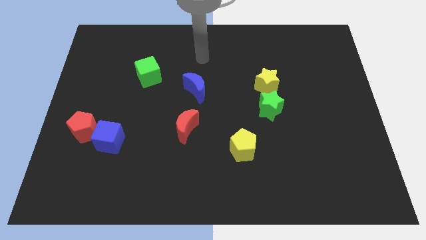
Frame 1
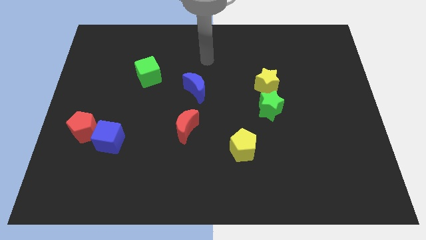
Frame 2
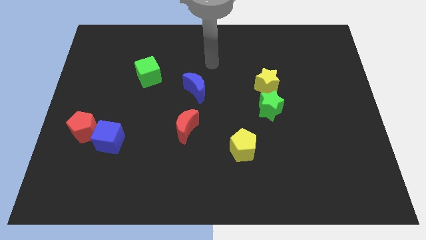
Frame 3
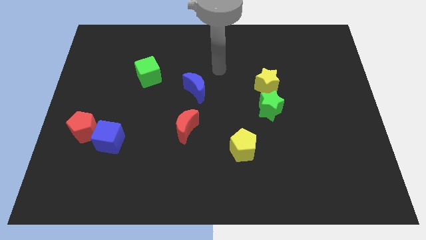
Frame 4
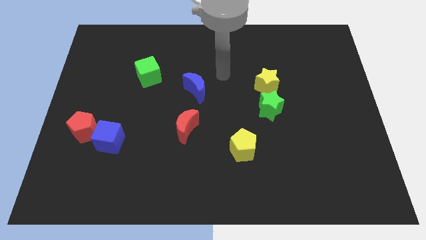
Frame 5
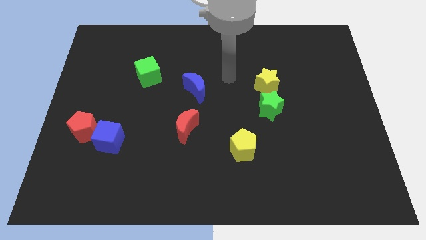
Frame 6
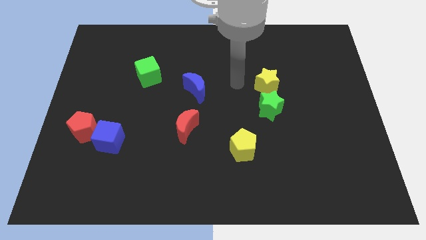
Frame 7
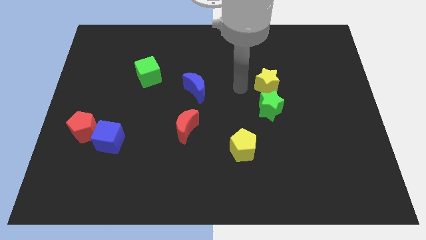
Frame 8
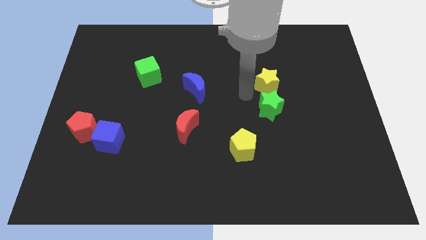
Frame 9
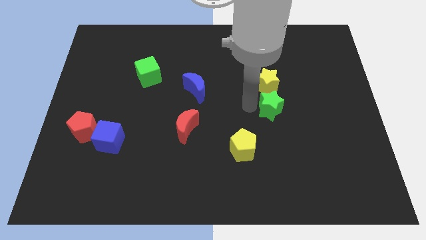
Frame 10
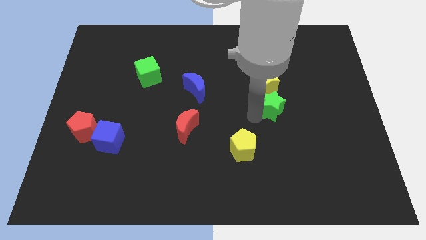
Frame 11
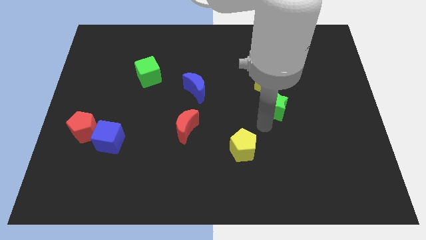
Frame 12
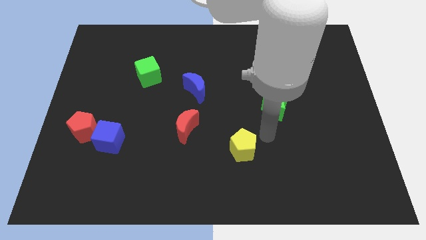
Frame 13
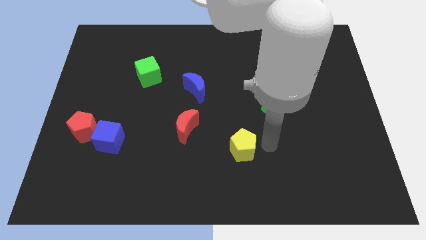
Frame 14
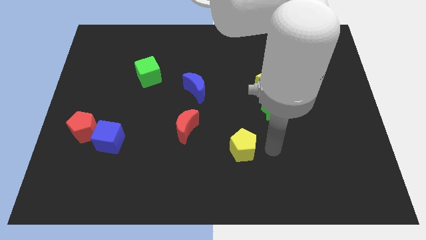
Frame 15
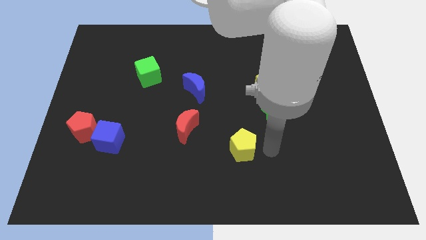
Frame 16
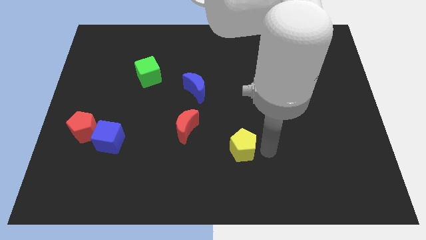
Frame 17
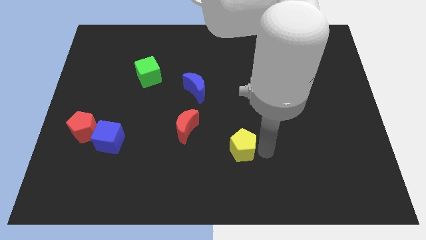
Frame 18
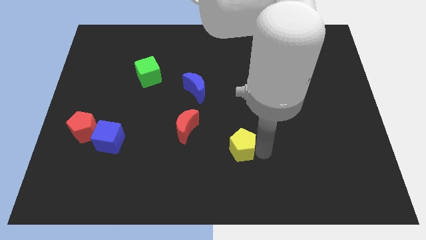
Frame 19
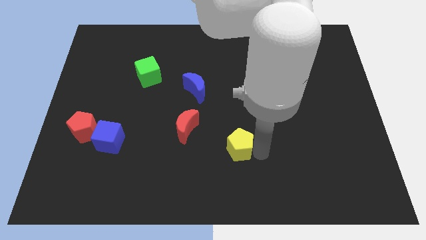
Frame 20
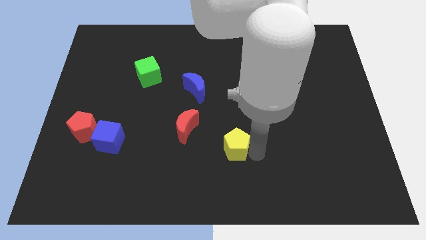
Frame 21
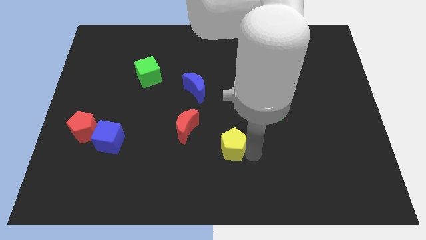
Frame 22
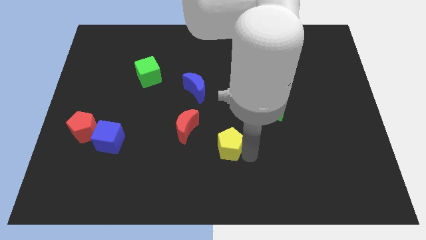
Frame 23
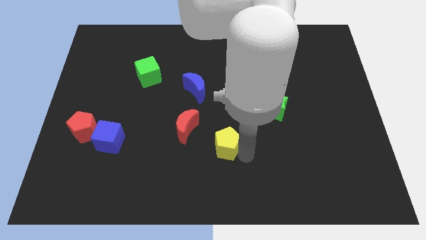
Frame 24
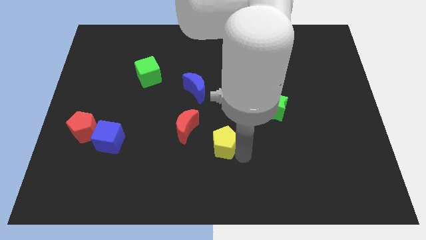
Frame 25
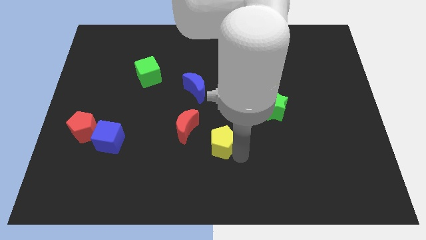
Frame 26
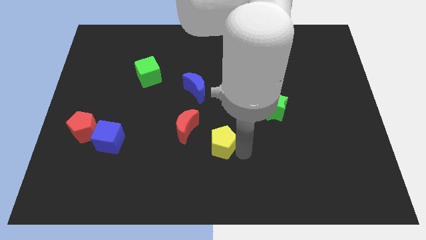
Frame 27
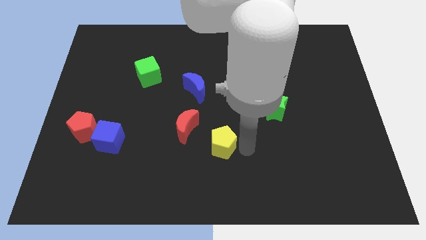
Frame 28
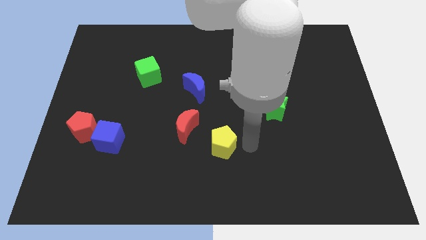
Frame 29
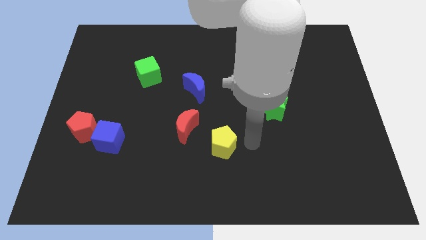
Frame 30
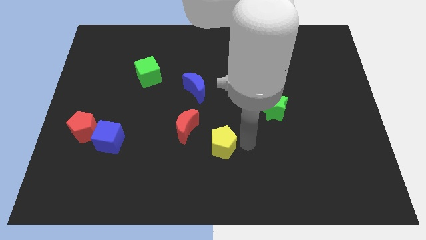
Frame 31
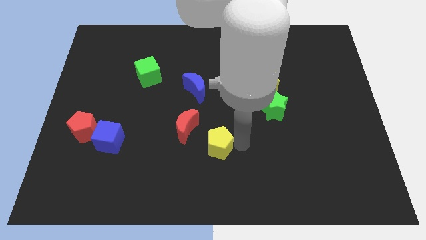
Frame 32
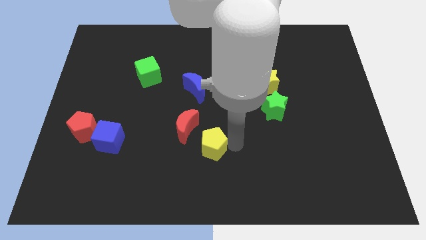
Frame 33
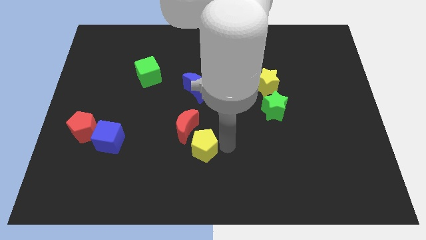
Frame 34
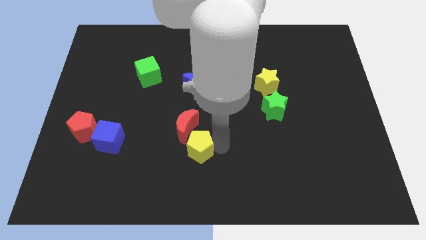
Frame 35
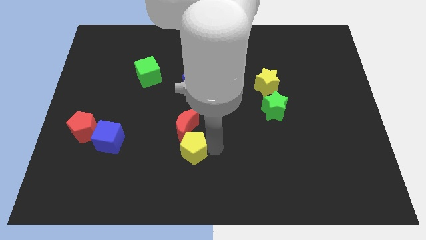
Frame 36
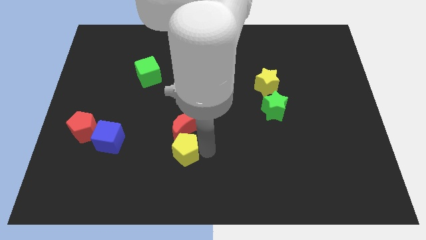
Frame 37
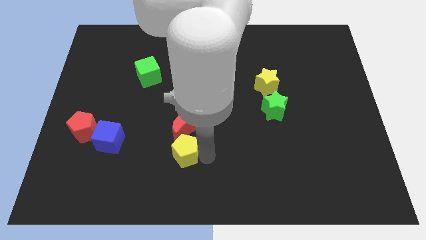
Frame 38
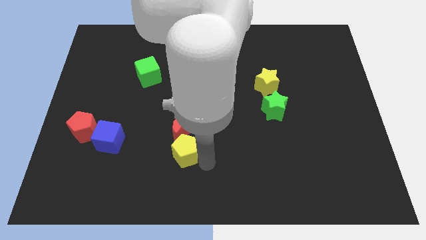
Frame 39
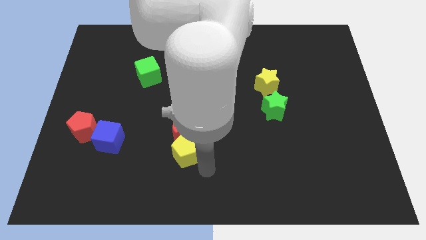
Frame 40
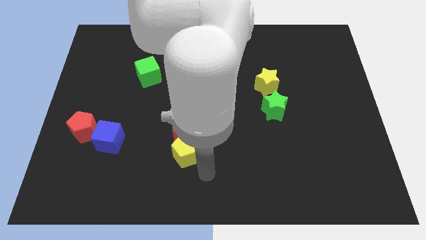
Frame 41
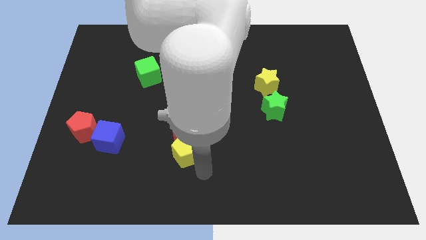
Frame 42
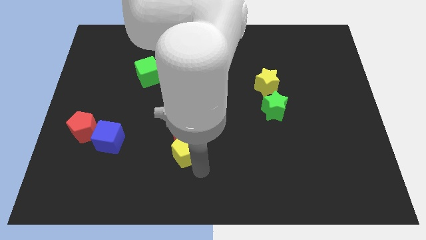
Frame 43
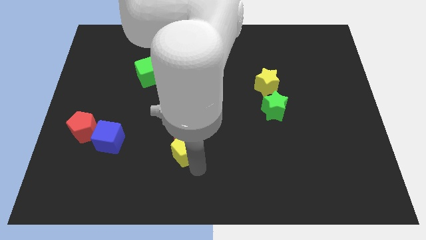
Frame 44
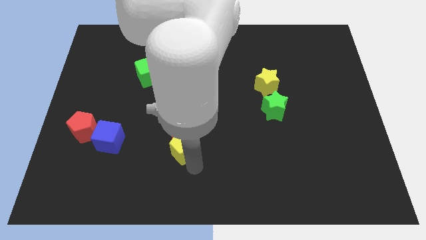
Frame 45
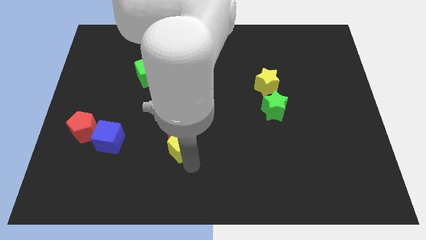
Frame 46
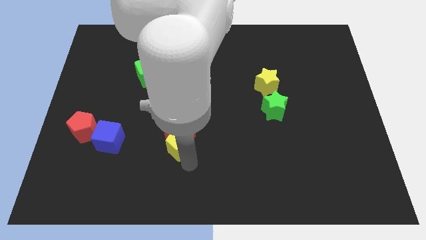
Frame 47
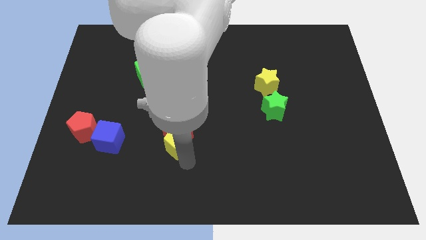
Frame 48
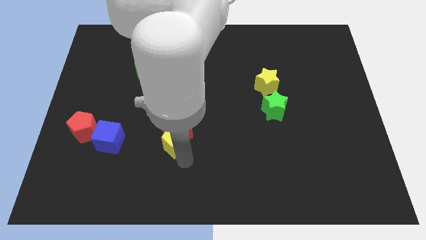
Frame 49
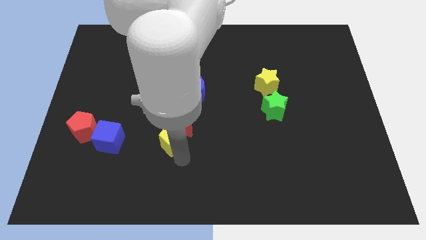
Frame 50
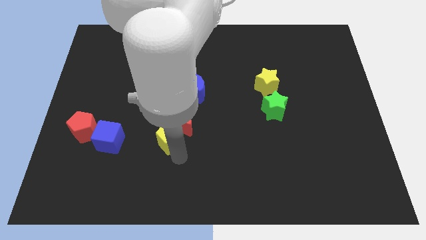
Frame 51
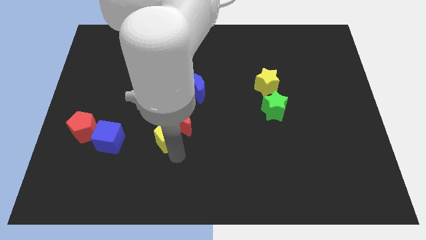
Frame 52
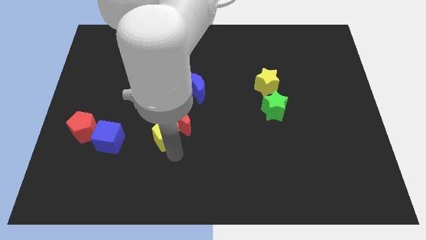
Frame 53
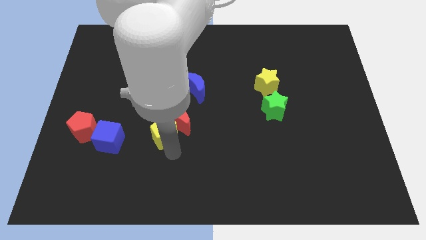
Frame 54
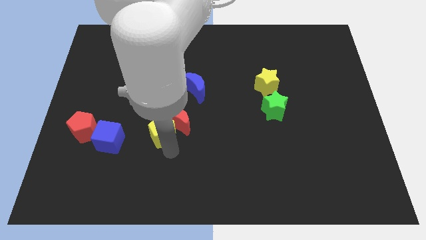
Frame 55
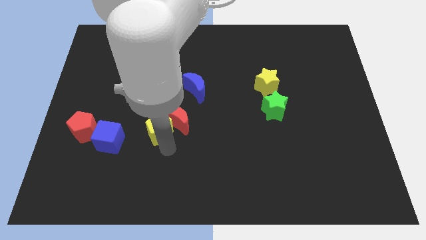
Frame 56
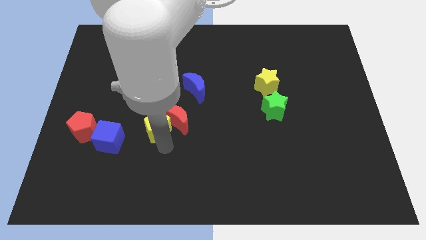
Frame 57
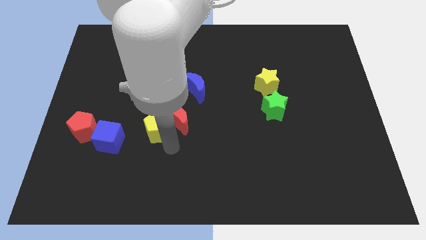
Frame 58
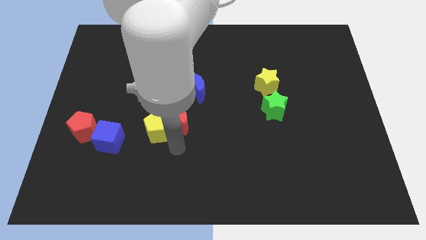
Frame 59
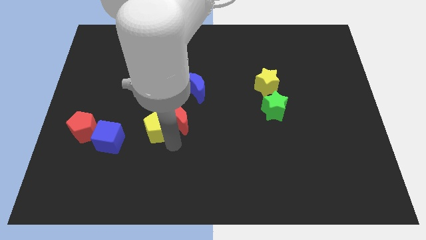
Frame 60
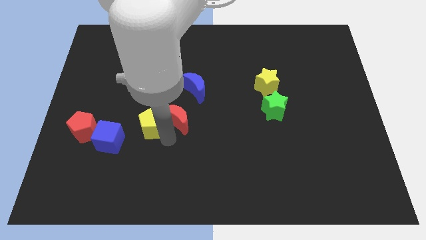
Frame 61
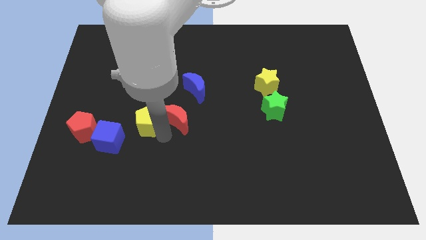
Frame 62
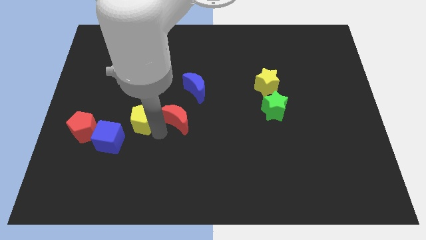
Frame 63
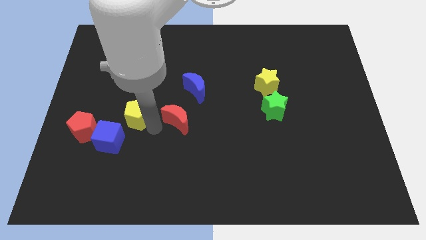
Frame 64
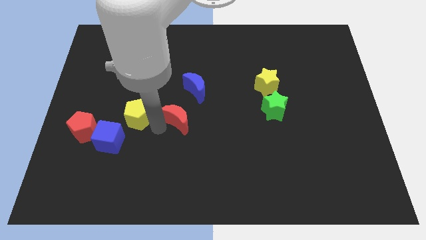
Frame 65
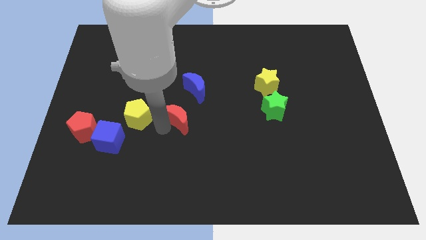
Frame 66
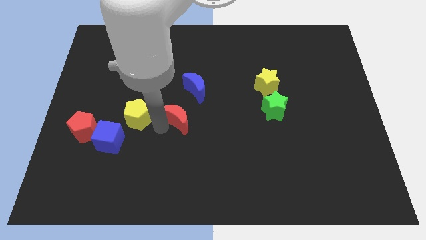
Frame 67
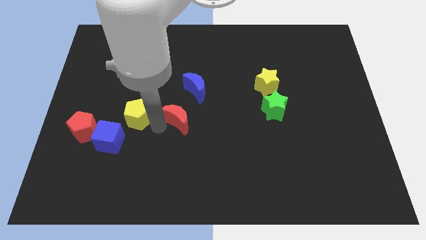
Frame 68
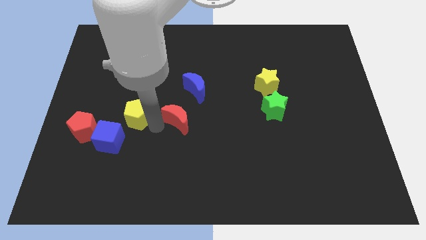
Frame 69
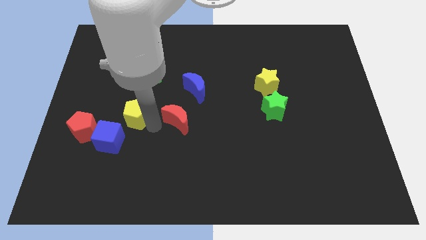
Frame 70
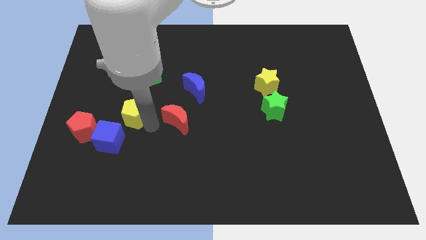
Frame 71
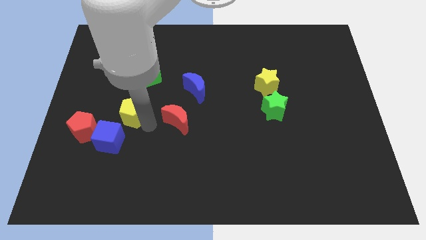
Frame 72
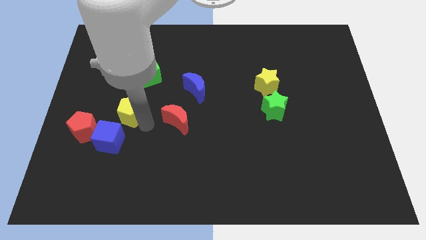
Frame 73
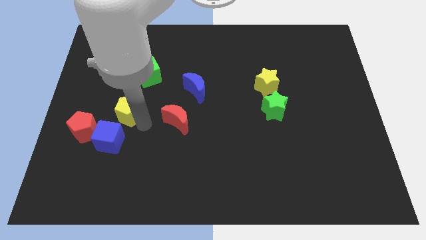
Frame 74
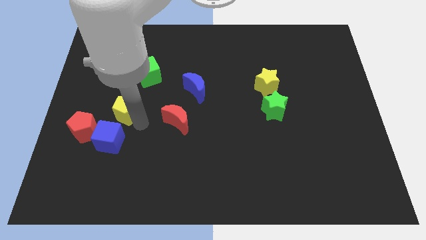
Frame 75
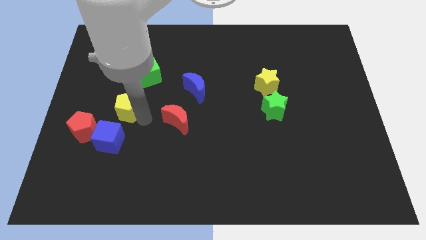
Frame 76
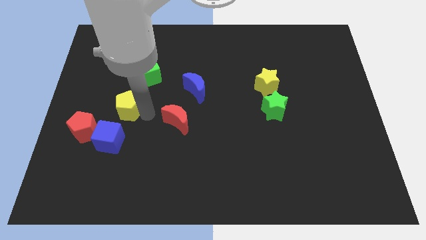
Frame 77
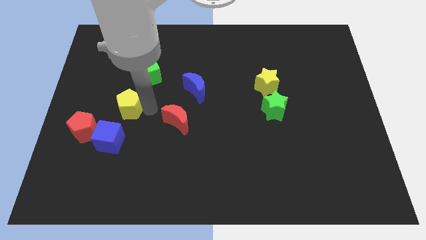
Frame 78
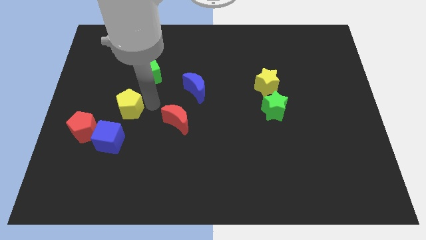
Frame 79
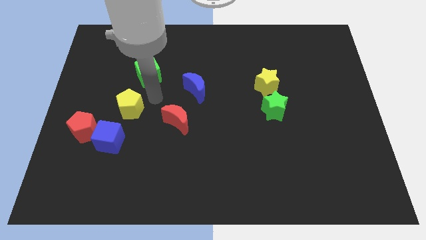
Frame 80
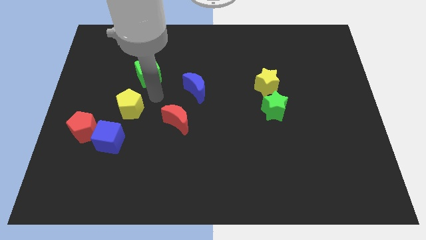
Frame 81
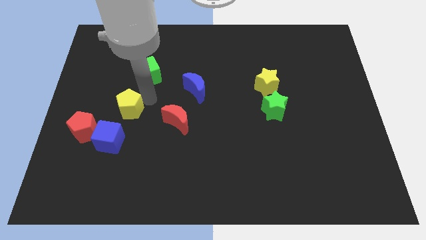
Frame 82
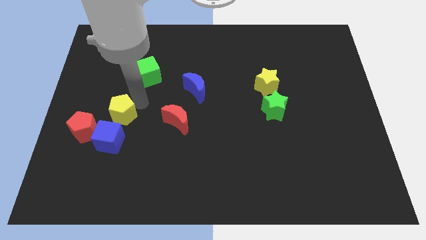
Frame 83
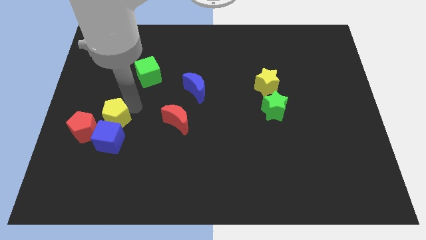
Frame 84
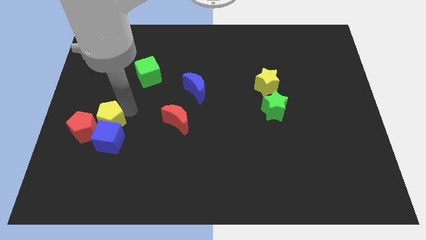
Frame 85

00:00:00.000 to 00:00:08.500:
slide the yellow pentagon to the red pentagon
